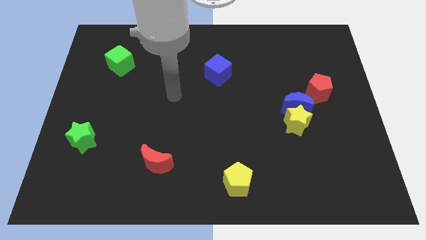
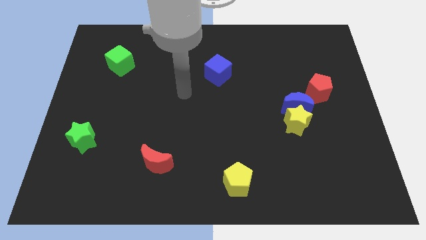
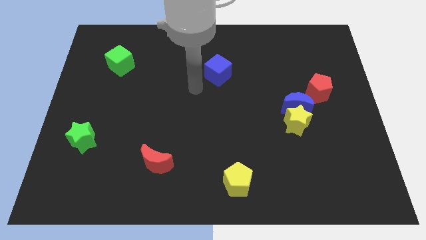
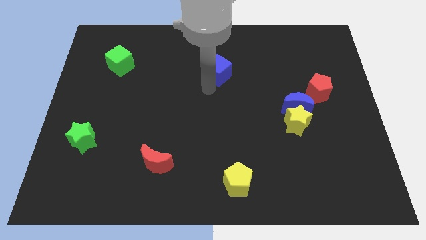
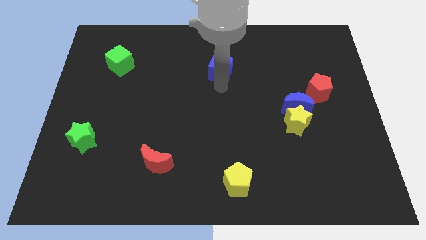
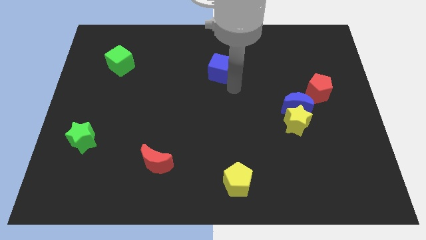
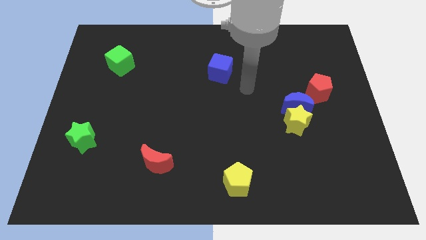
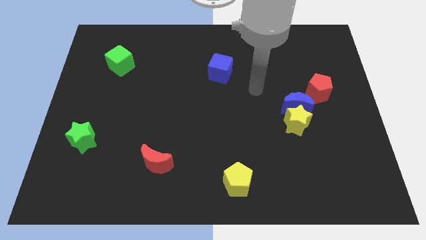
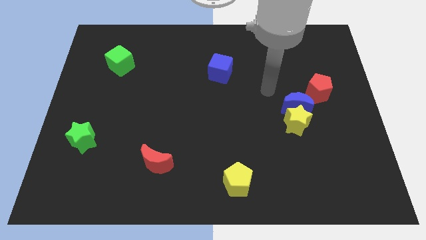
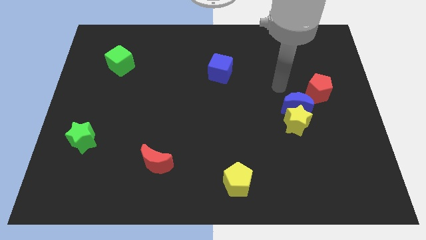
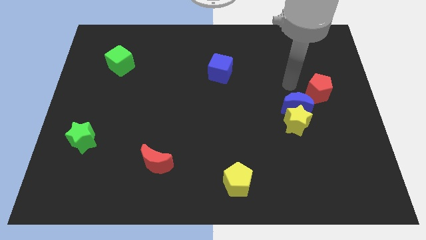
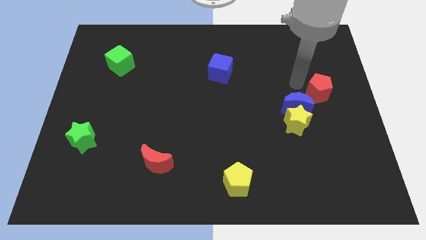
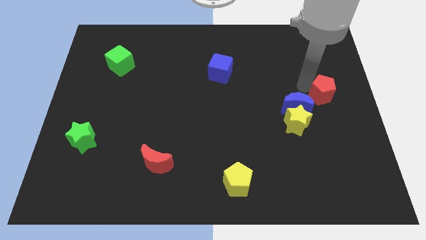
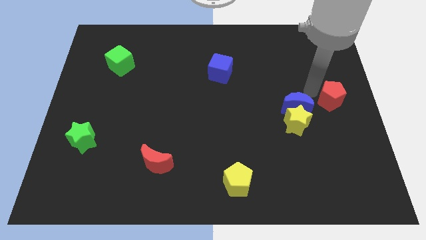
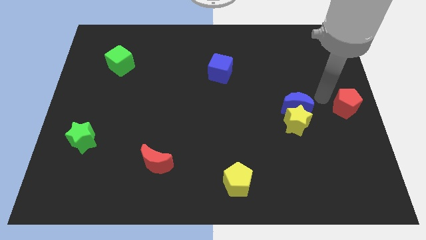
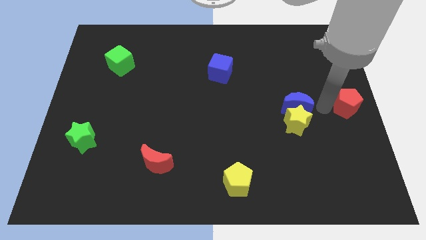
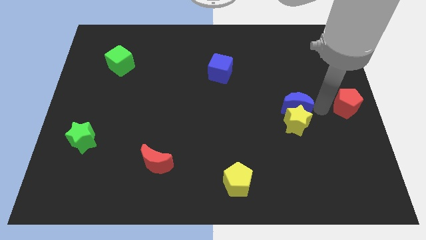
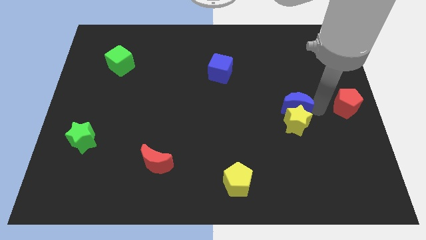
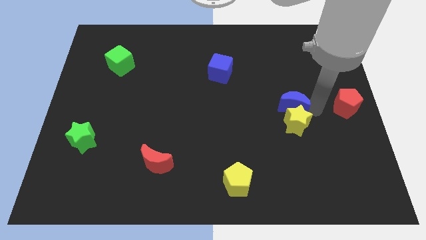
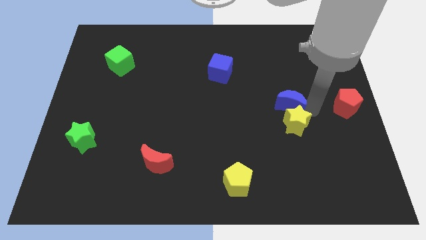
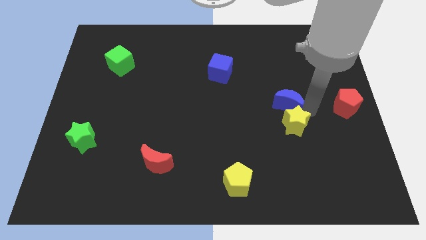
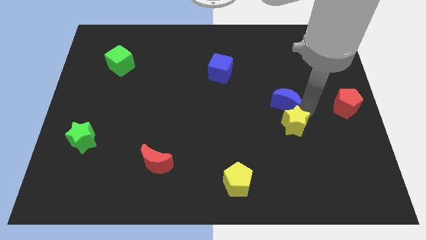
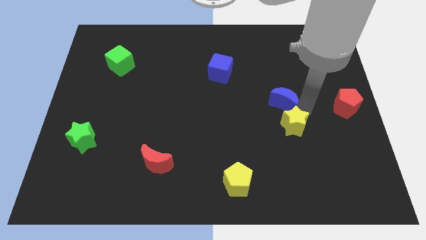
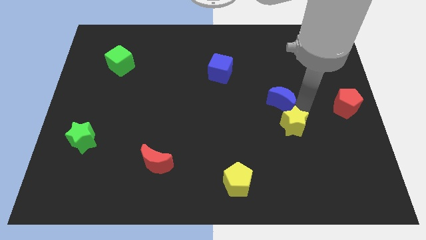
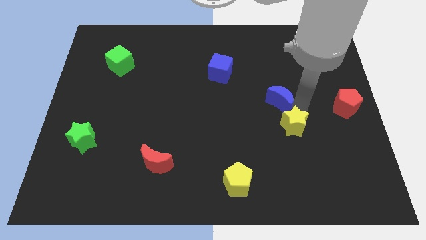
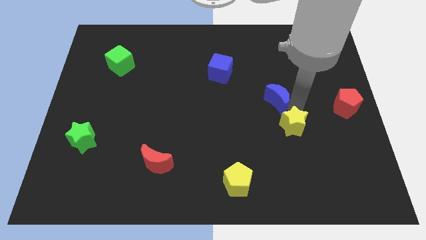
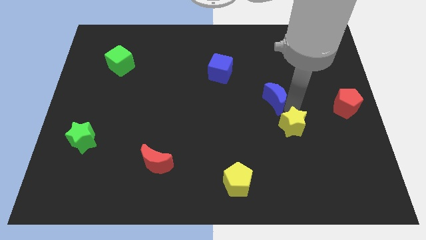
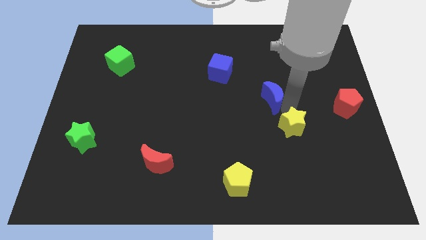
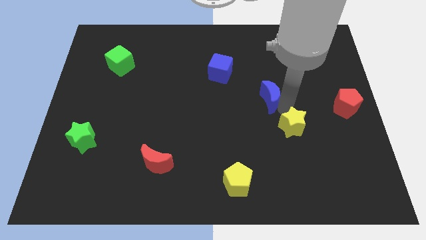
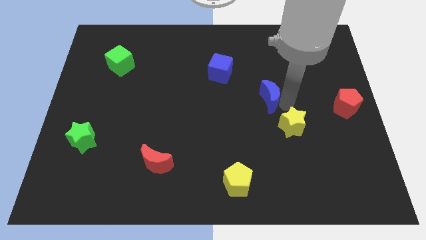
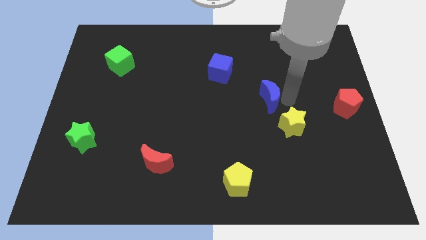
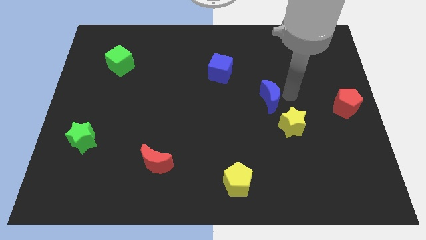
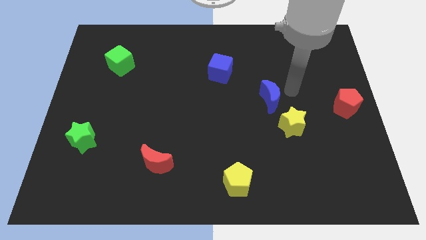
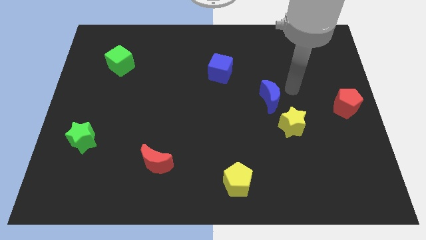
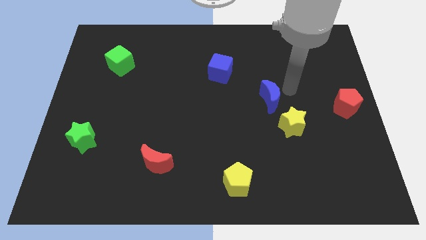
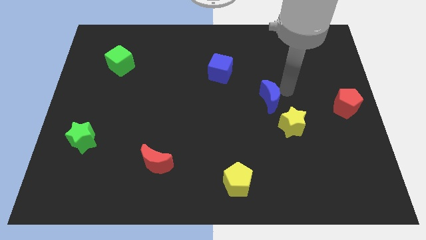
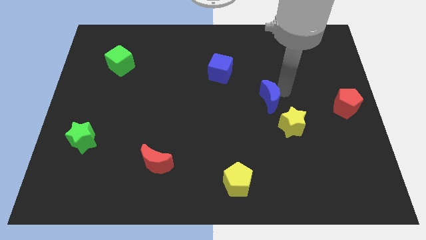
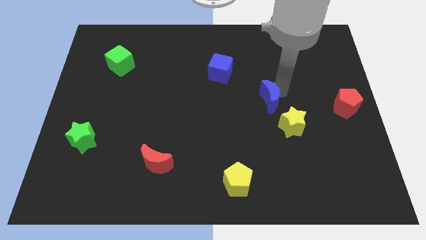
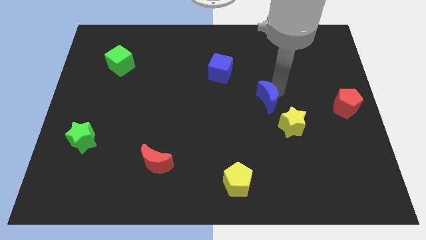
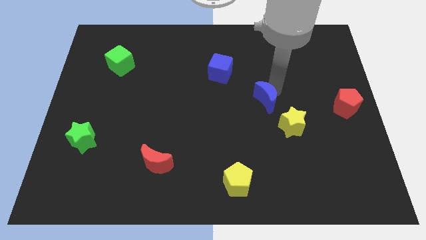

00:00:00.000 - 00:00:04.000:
slightly move the blue moon to the left

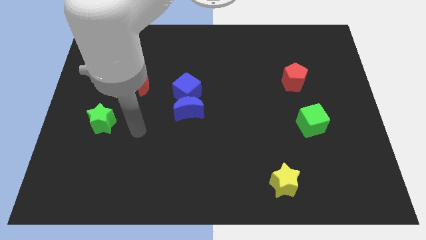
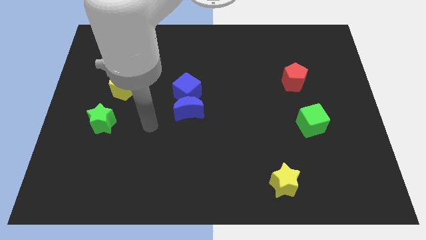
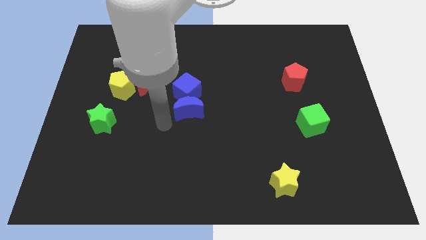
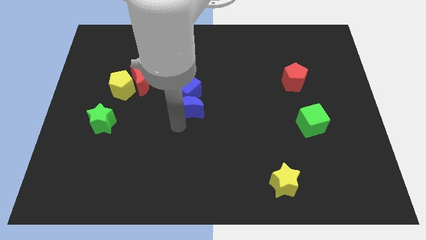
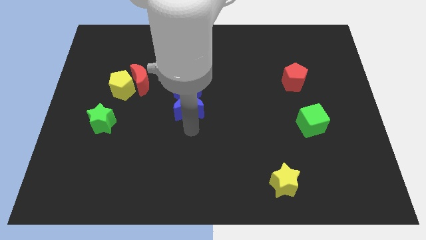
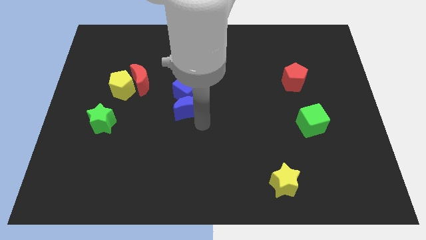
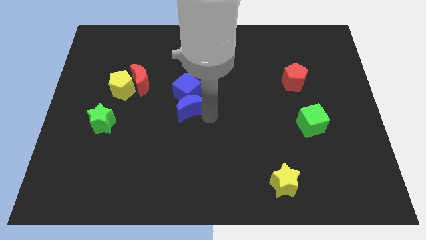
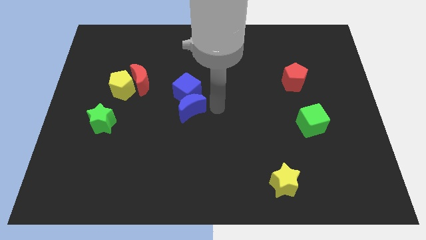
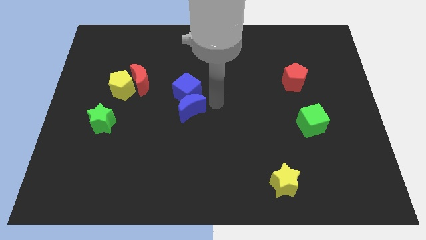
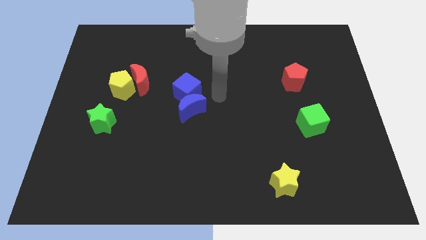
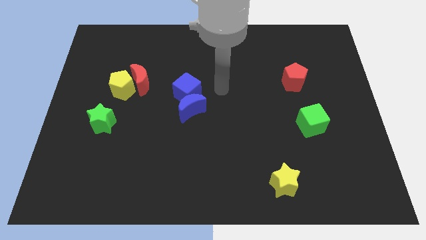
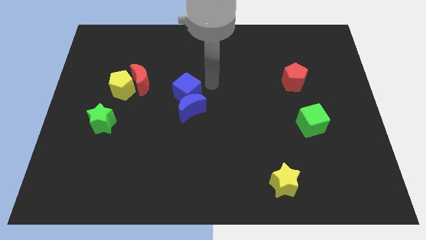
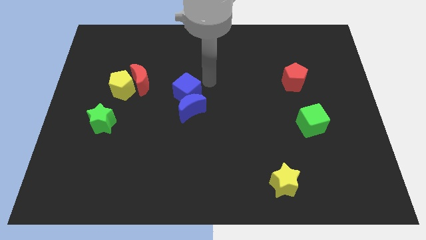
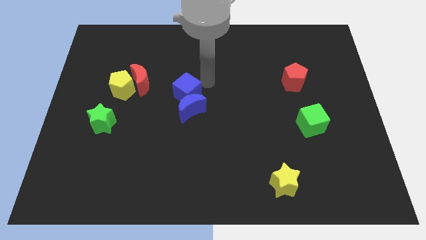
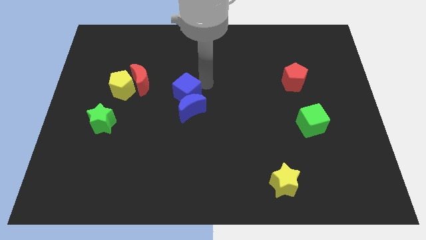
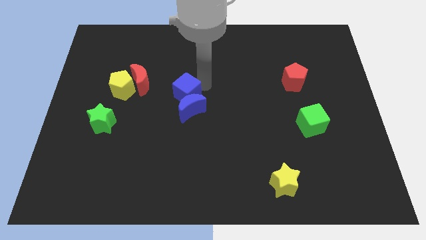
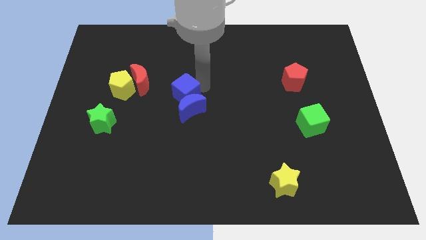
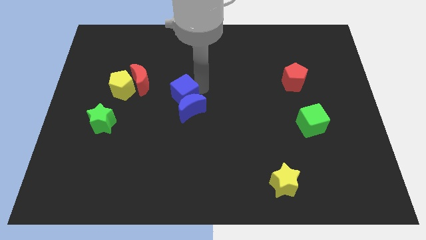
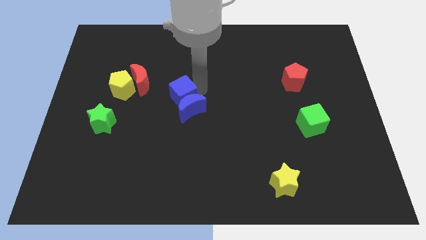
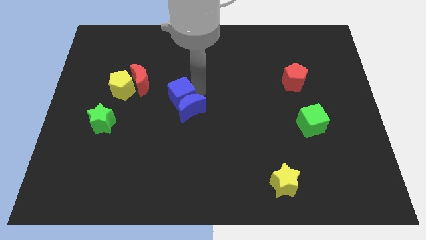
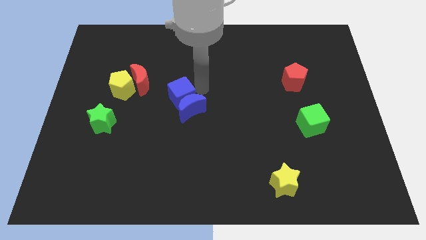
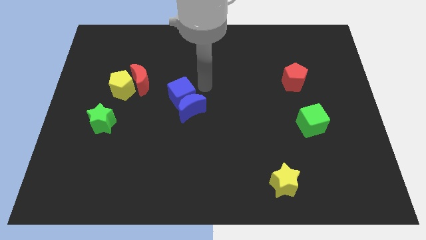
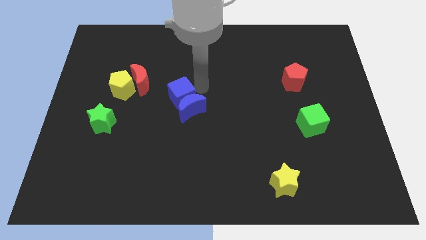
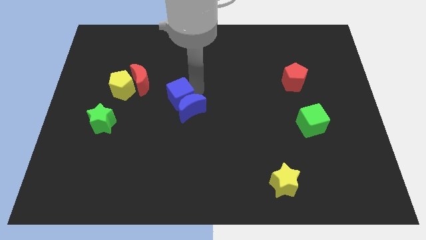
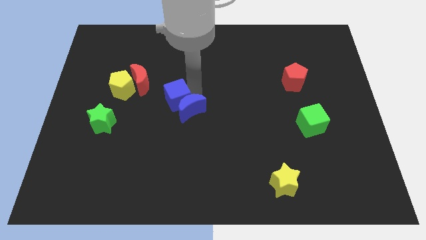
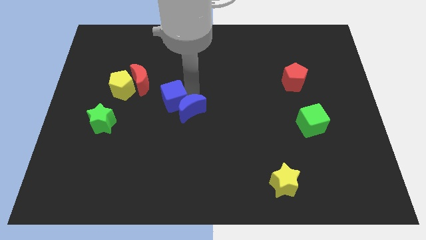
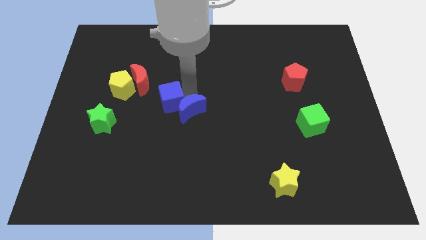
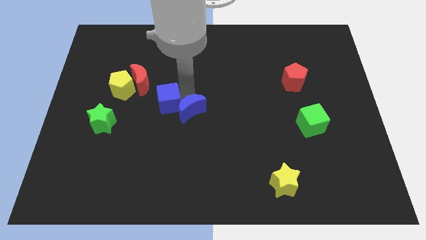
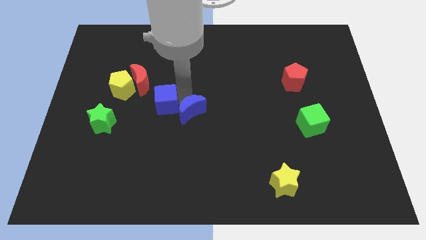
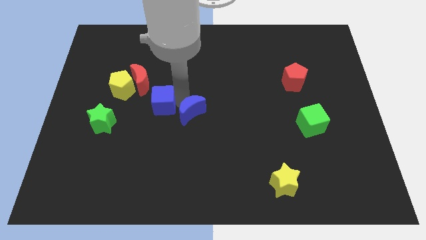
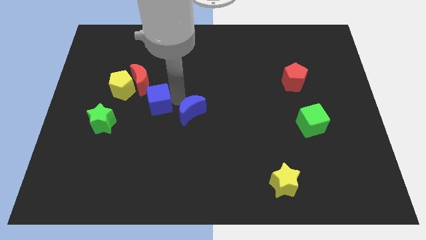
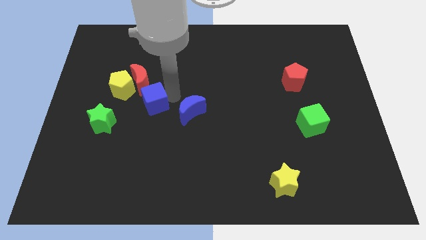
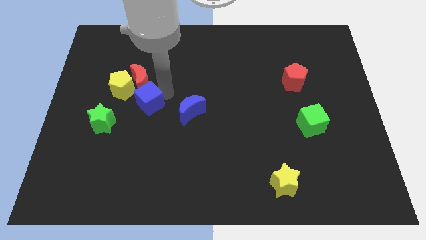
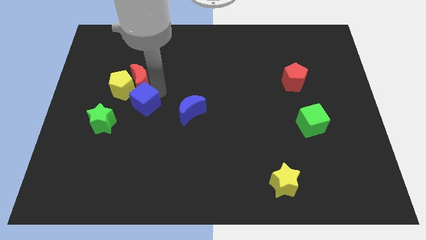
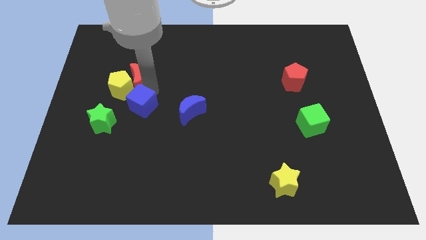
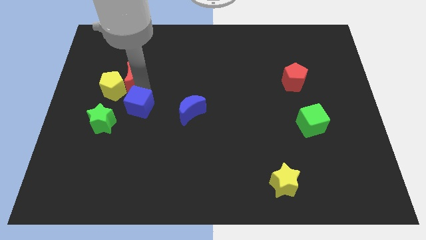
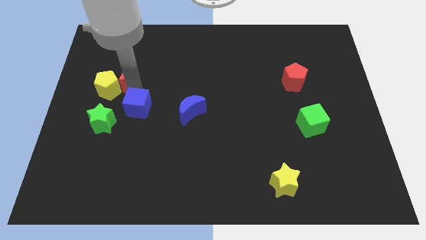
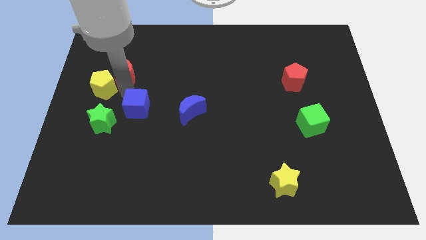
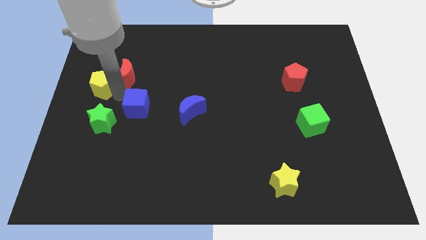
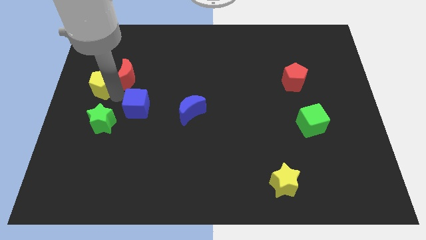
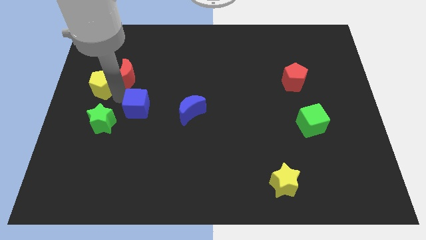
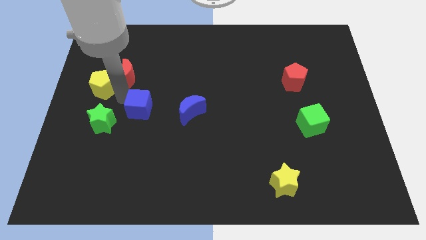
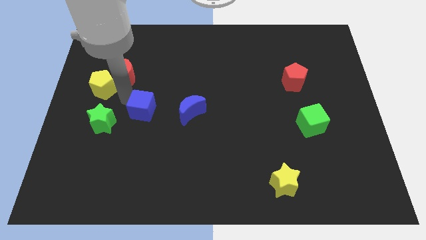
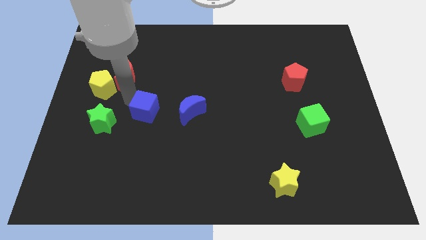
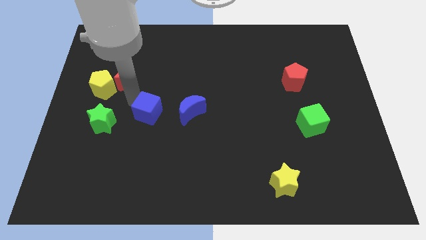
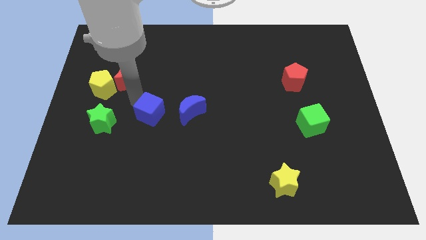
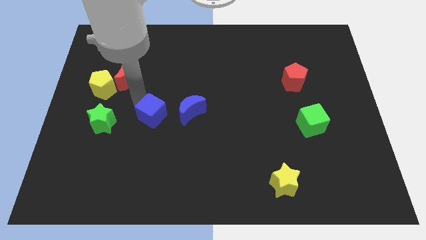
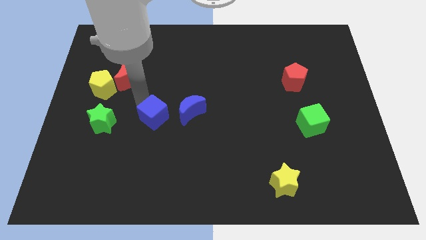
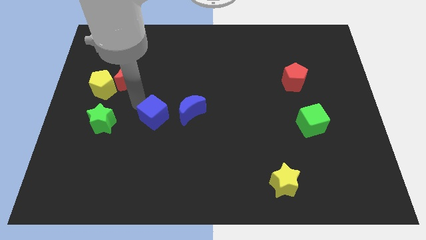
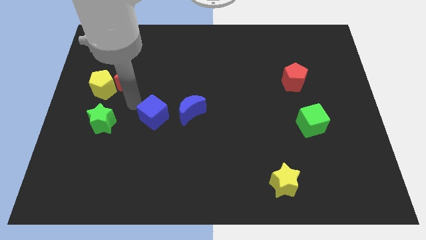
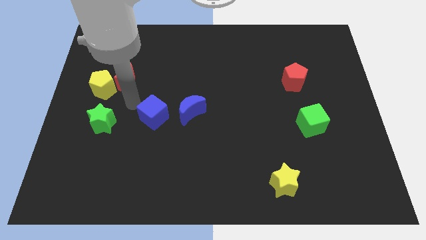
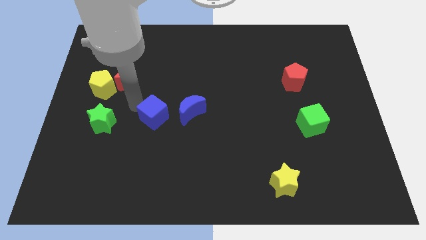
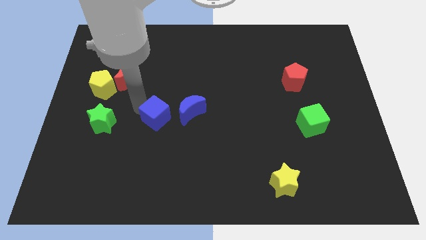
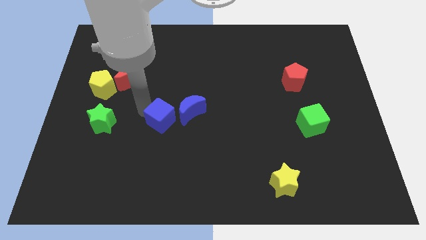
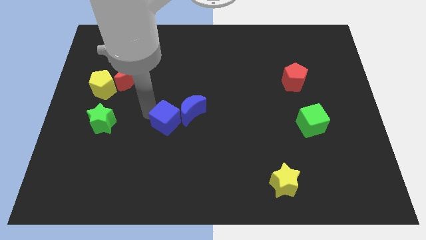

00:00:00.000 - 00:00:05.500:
slightly slide the blue cube down
